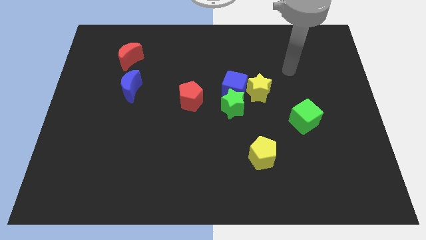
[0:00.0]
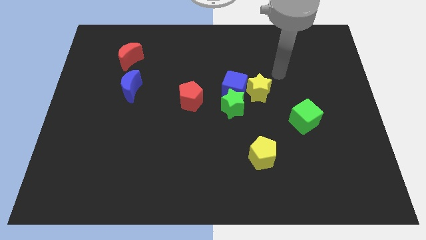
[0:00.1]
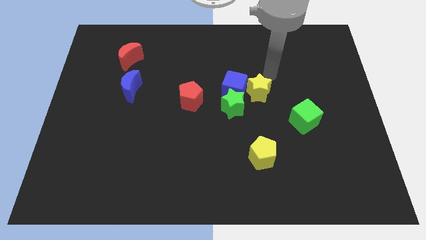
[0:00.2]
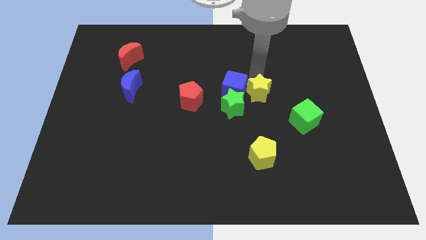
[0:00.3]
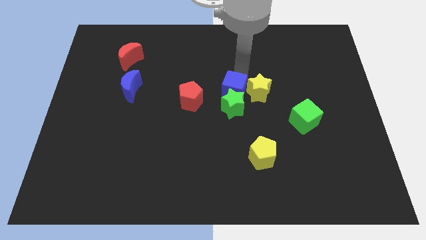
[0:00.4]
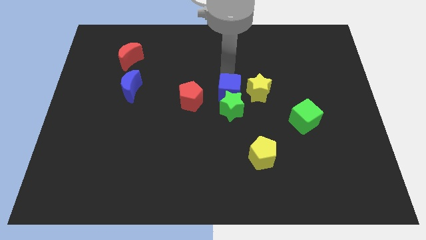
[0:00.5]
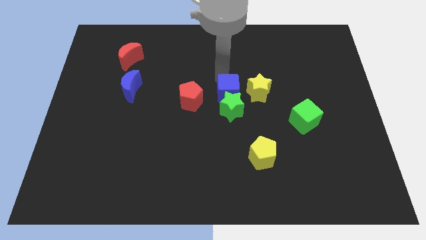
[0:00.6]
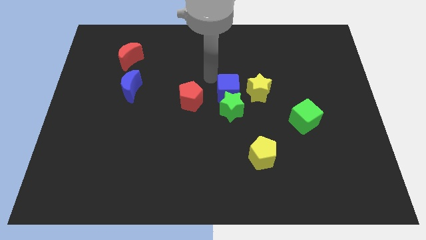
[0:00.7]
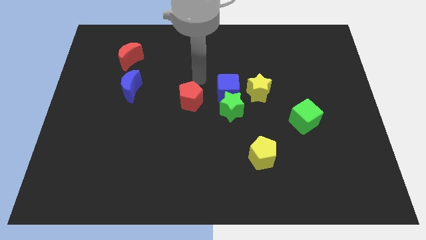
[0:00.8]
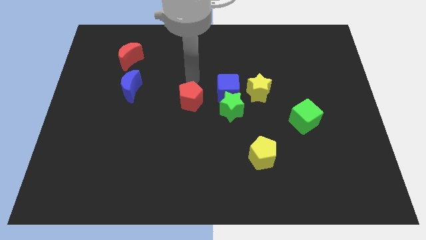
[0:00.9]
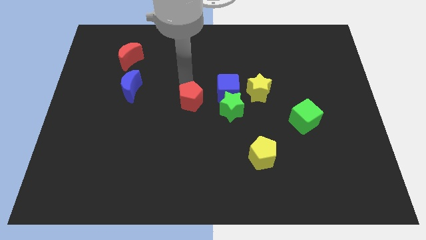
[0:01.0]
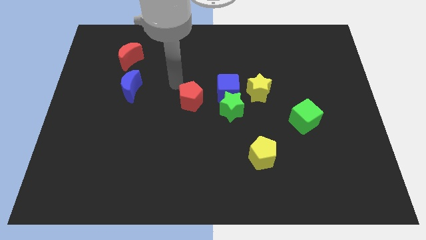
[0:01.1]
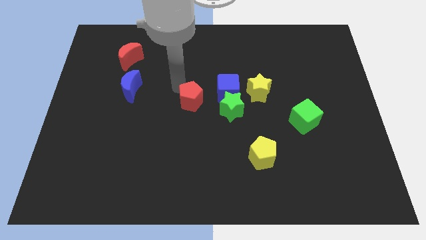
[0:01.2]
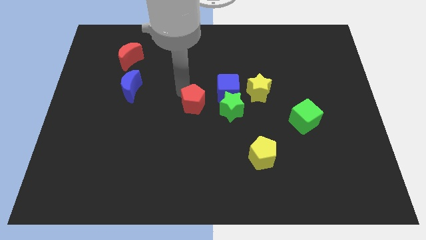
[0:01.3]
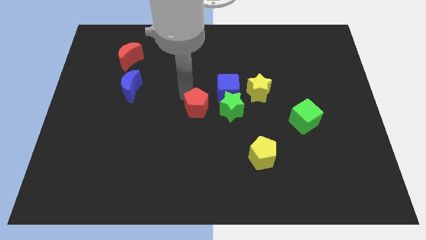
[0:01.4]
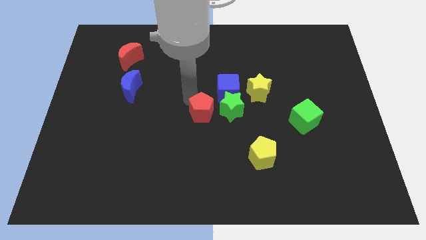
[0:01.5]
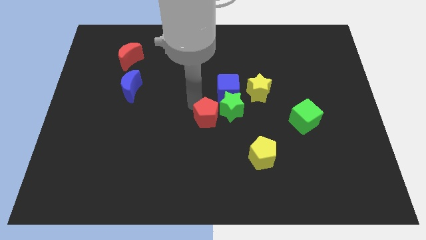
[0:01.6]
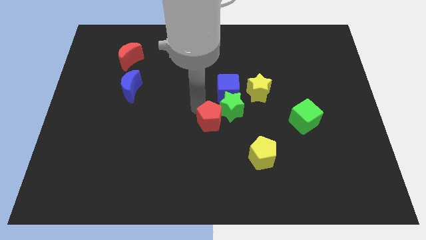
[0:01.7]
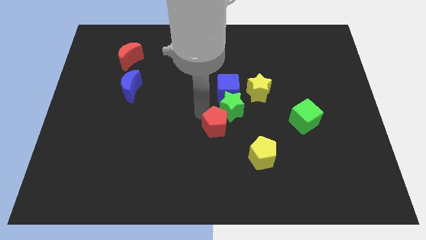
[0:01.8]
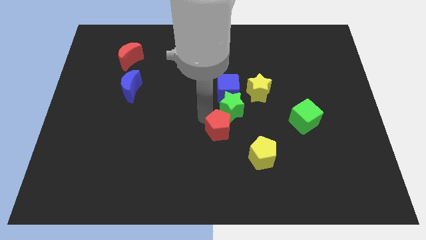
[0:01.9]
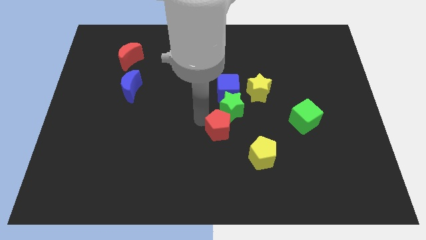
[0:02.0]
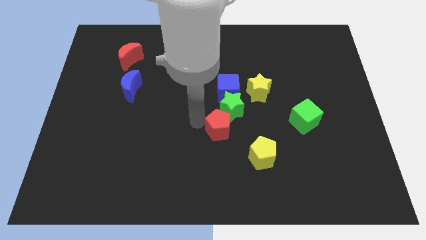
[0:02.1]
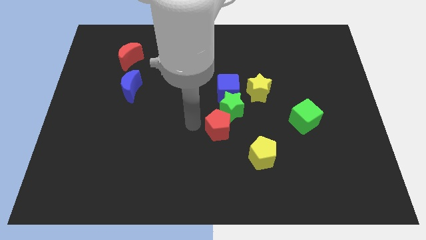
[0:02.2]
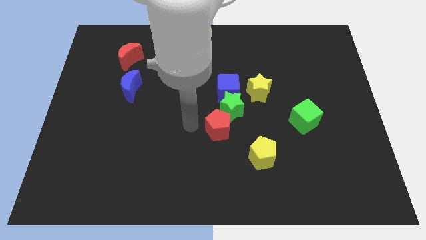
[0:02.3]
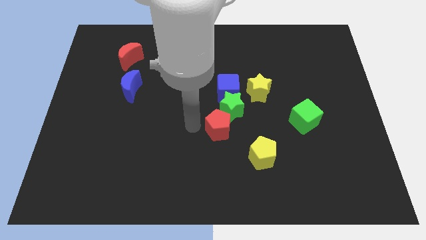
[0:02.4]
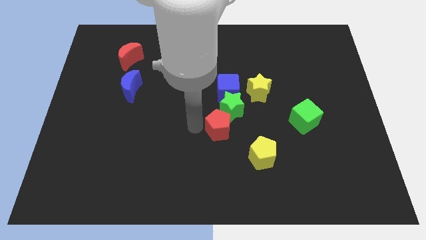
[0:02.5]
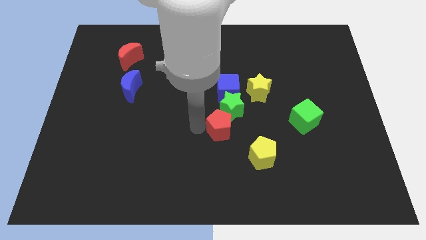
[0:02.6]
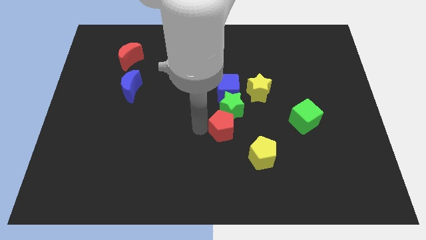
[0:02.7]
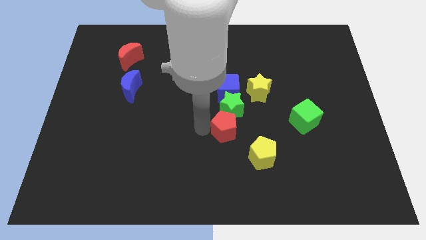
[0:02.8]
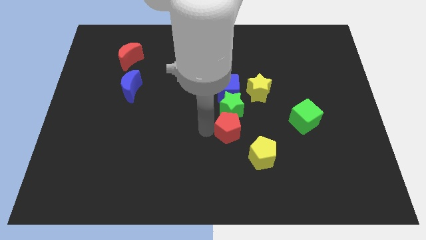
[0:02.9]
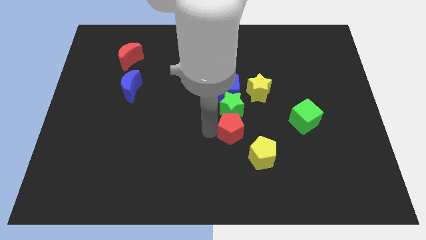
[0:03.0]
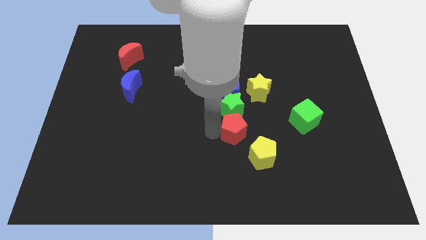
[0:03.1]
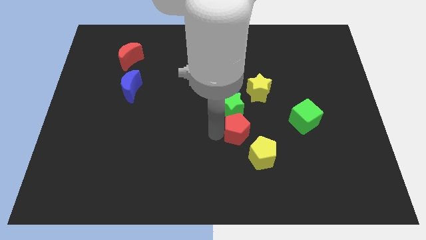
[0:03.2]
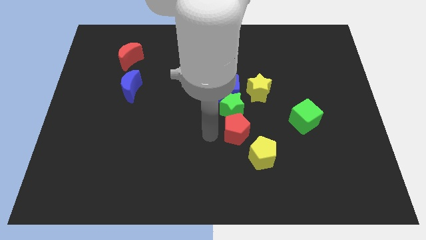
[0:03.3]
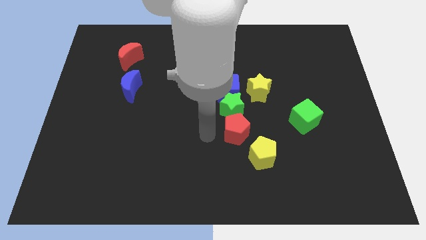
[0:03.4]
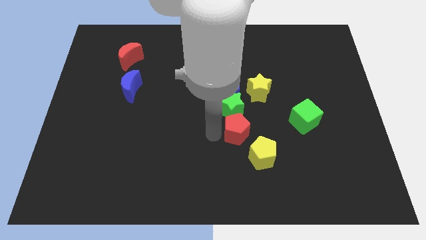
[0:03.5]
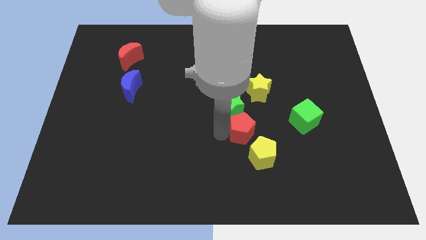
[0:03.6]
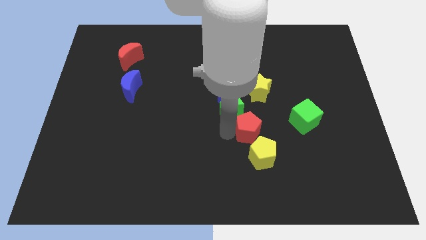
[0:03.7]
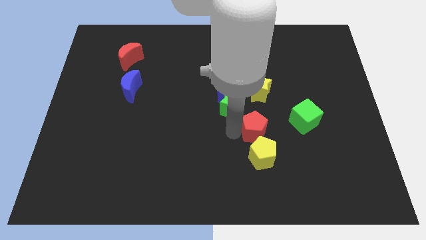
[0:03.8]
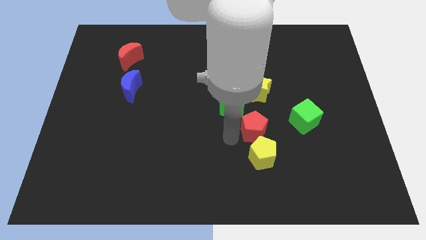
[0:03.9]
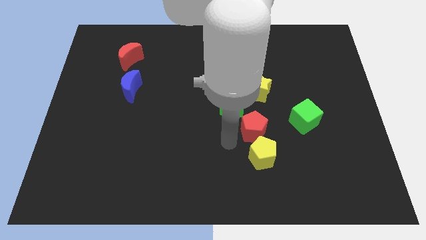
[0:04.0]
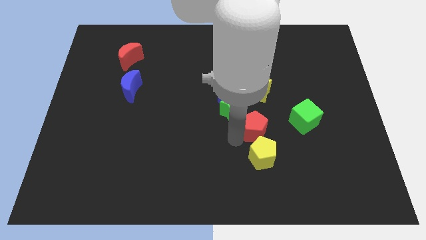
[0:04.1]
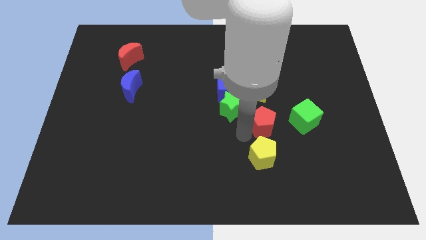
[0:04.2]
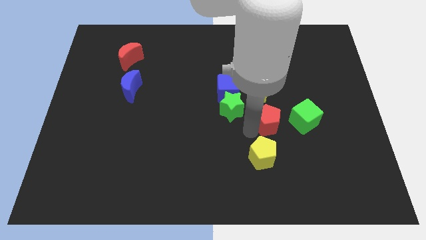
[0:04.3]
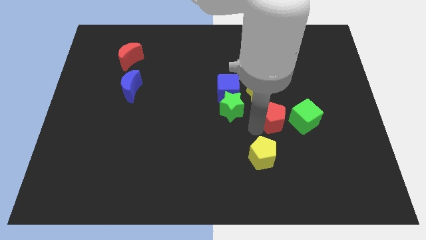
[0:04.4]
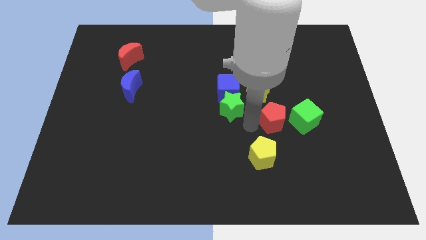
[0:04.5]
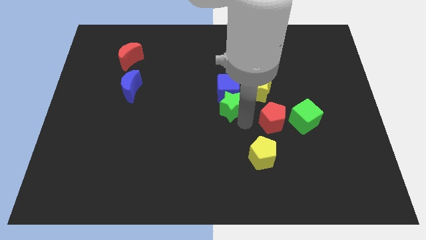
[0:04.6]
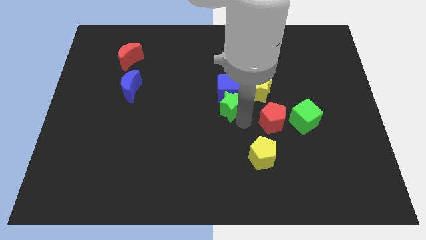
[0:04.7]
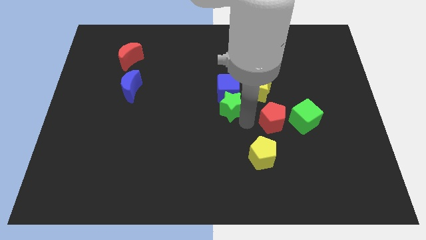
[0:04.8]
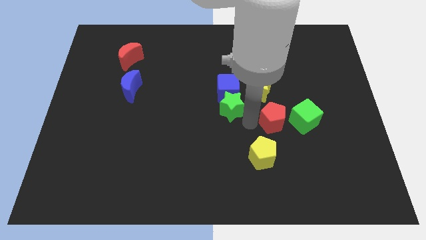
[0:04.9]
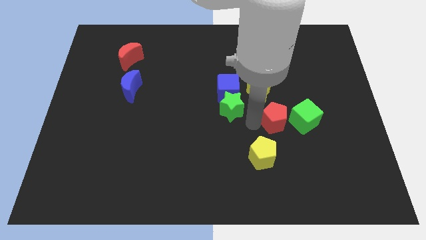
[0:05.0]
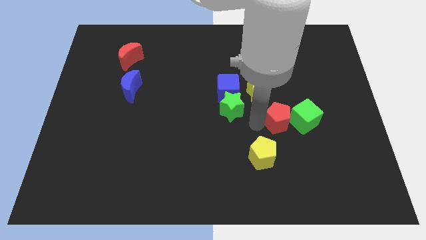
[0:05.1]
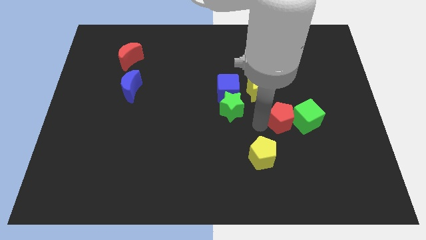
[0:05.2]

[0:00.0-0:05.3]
slide the red pentagon towards the green cube

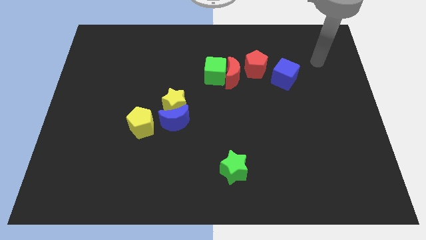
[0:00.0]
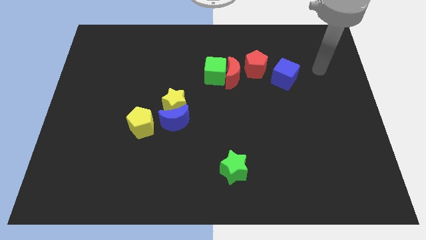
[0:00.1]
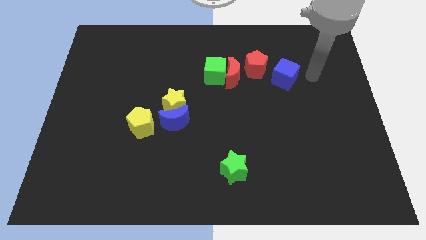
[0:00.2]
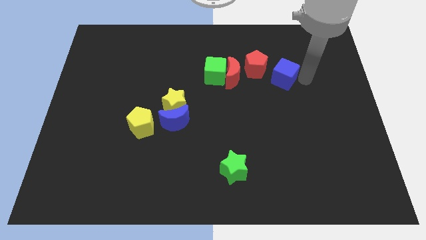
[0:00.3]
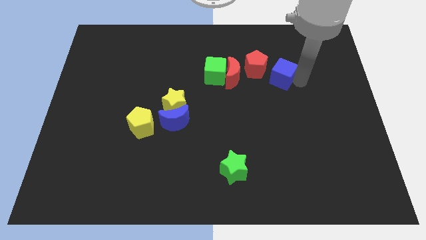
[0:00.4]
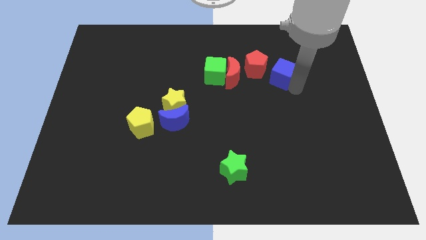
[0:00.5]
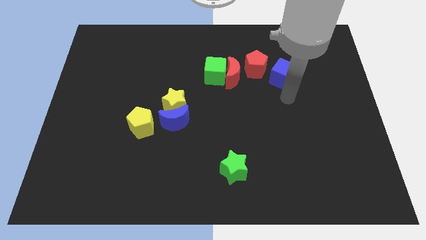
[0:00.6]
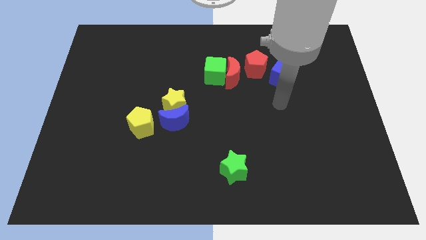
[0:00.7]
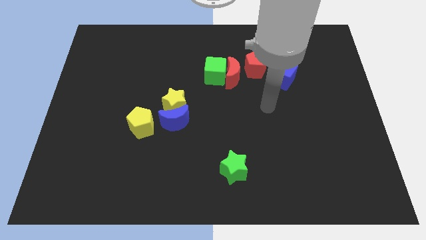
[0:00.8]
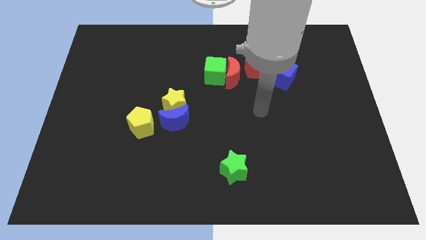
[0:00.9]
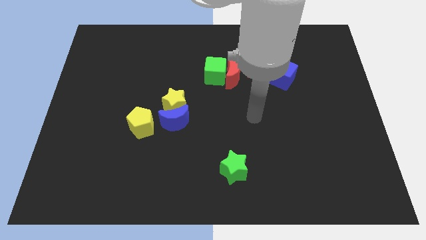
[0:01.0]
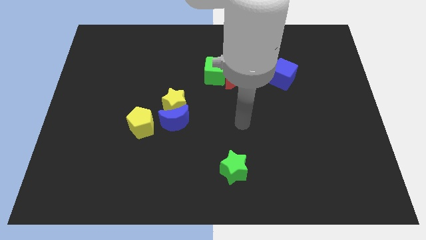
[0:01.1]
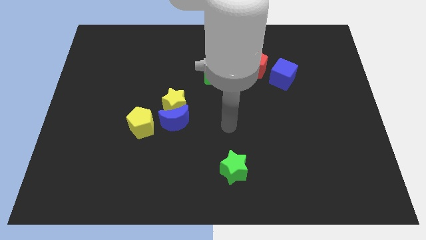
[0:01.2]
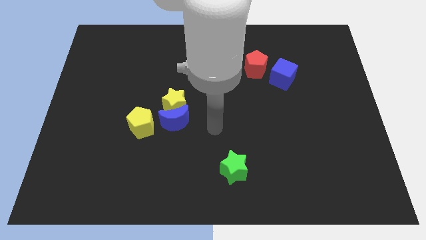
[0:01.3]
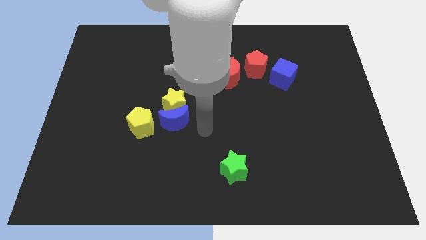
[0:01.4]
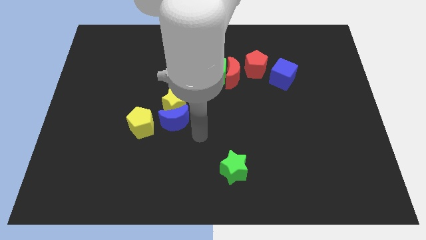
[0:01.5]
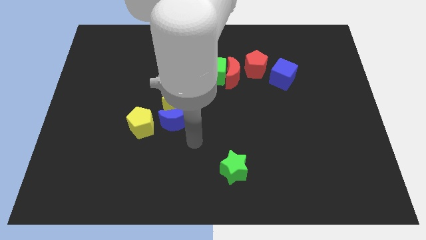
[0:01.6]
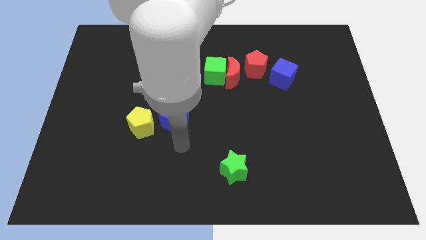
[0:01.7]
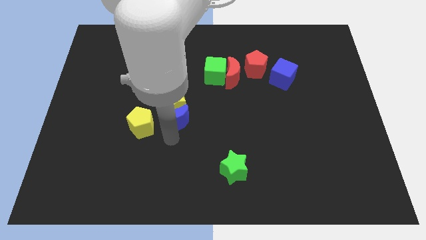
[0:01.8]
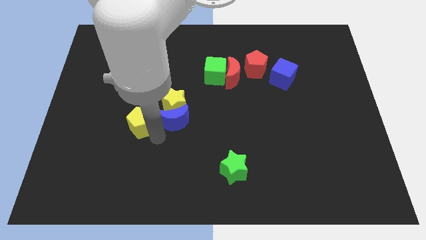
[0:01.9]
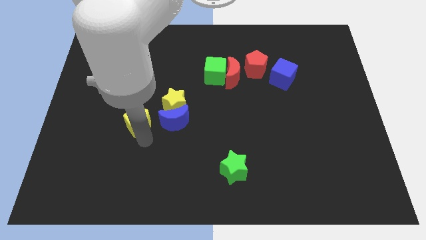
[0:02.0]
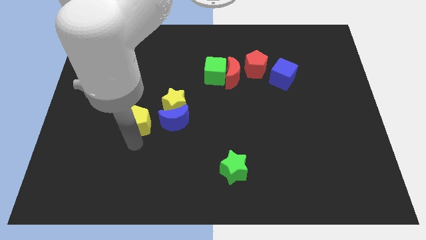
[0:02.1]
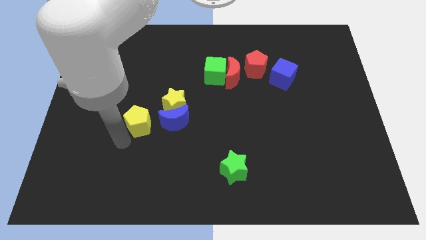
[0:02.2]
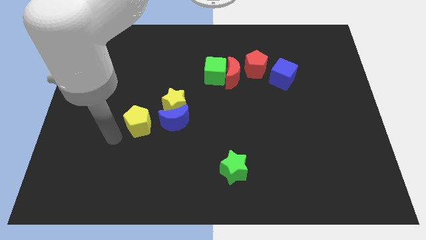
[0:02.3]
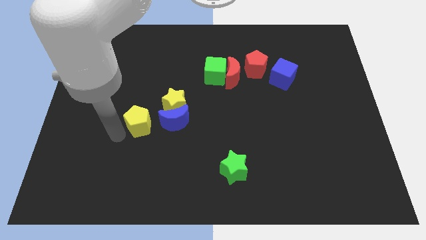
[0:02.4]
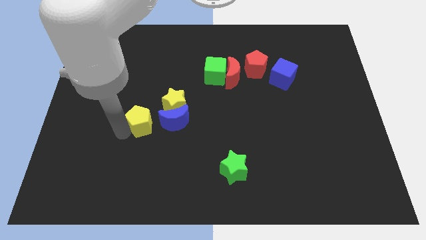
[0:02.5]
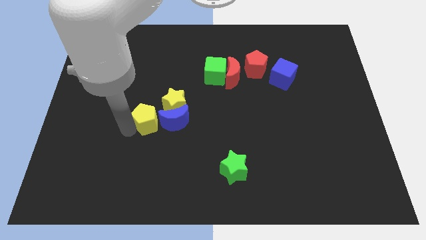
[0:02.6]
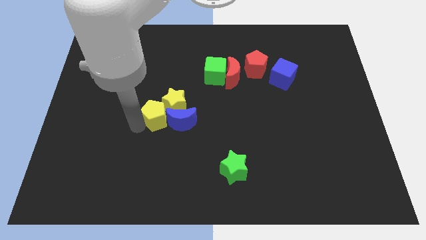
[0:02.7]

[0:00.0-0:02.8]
move the yellow pentagon to the yellow star
